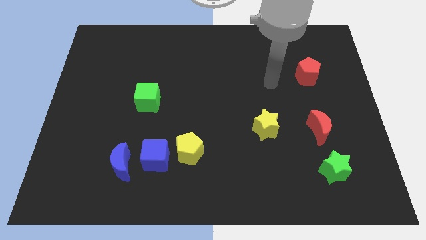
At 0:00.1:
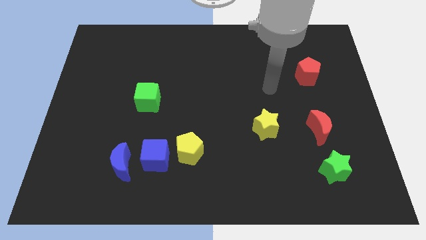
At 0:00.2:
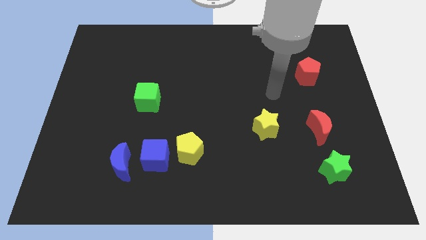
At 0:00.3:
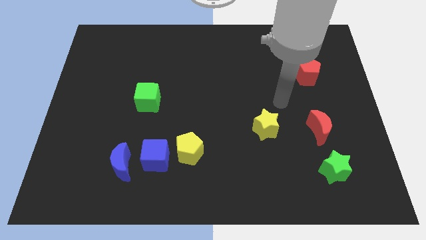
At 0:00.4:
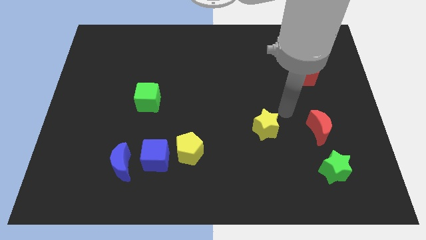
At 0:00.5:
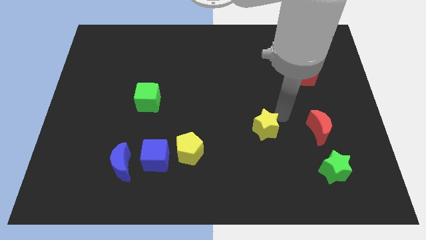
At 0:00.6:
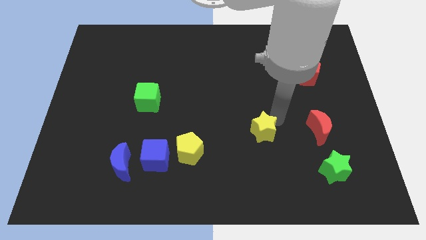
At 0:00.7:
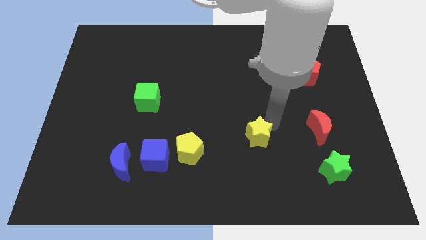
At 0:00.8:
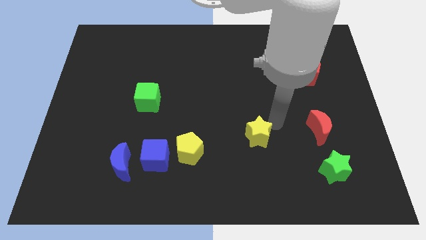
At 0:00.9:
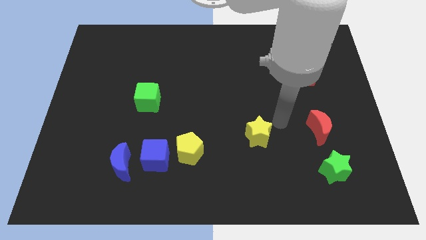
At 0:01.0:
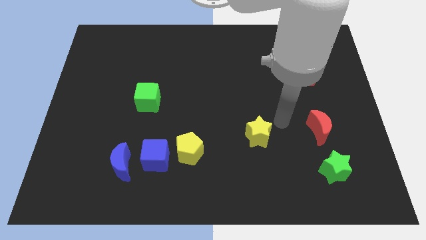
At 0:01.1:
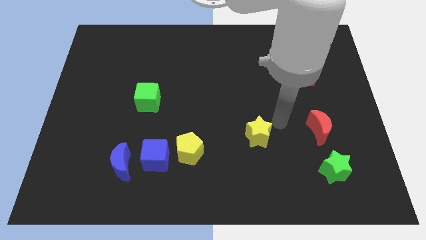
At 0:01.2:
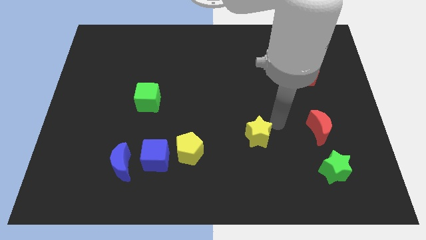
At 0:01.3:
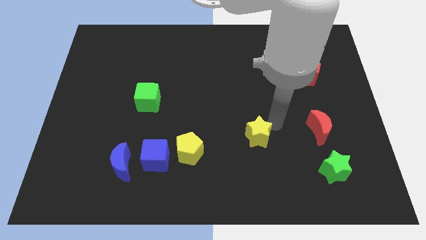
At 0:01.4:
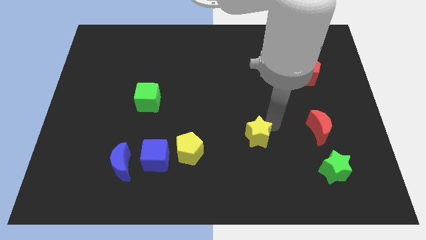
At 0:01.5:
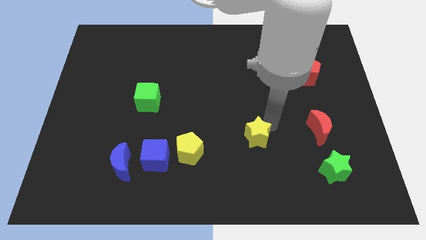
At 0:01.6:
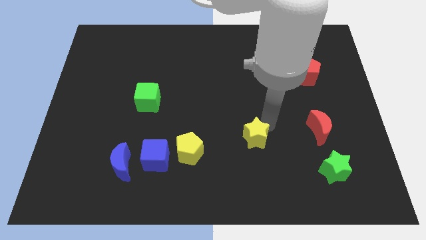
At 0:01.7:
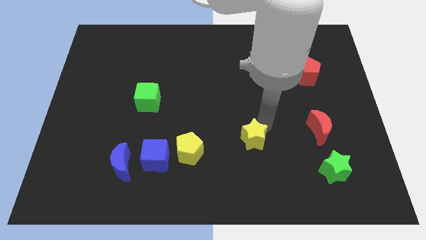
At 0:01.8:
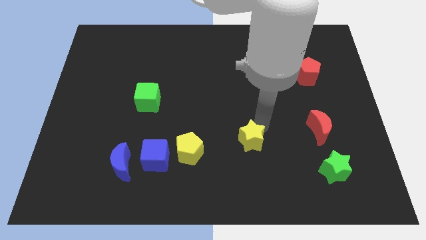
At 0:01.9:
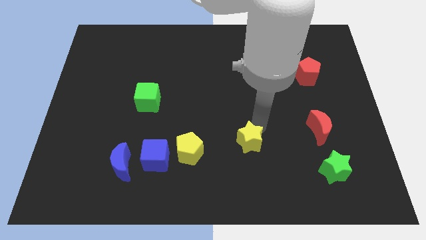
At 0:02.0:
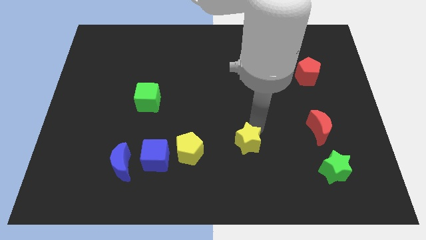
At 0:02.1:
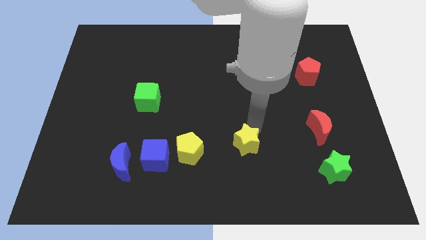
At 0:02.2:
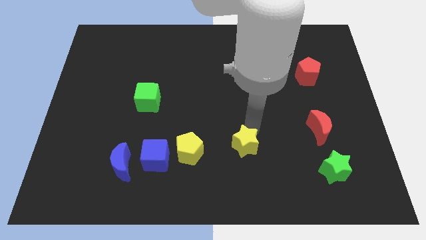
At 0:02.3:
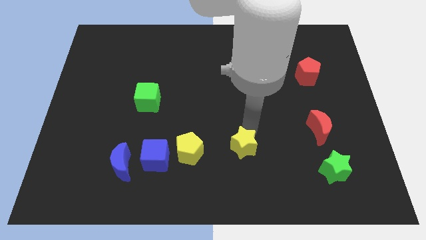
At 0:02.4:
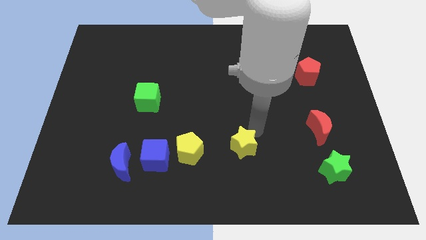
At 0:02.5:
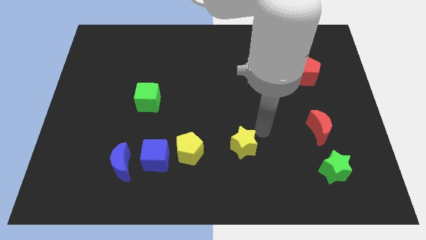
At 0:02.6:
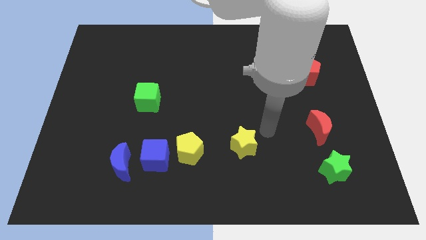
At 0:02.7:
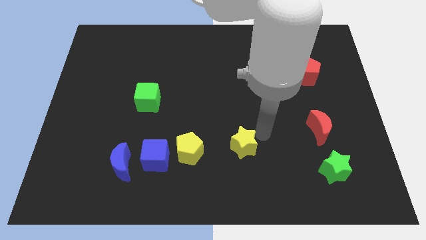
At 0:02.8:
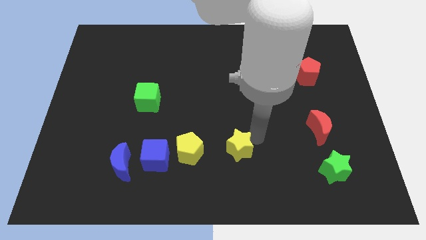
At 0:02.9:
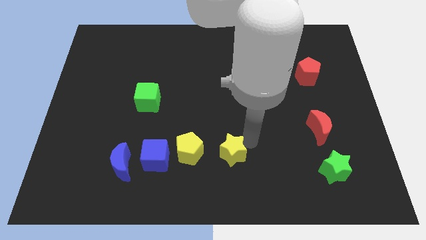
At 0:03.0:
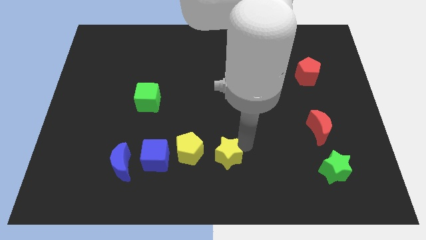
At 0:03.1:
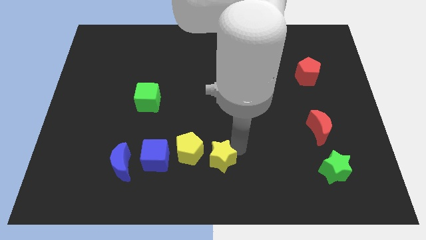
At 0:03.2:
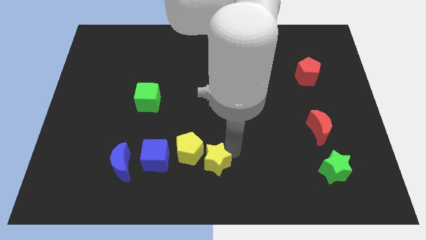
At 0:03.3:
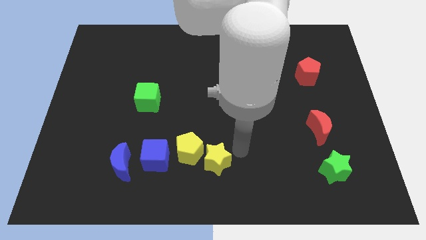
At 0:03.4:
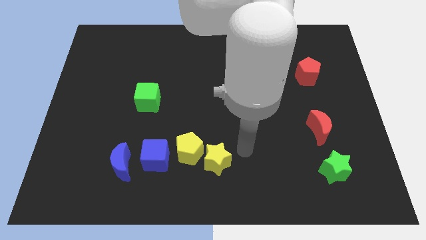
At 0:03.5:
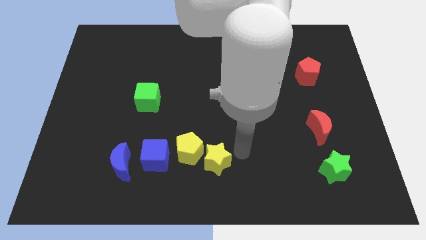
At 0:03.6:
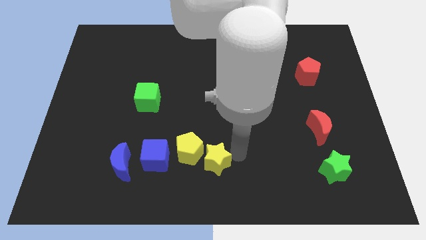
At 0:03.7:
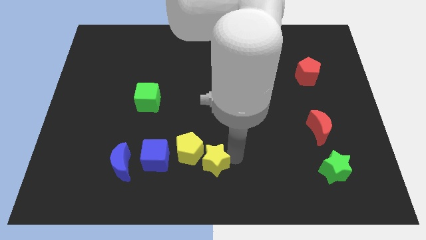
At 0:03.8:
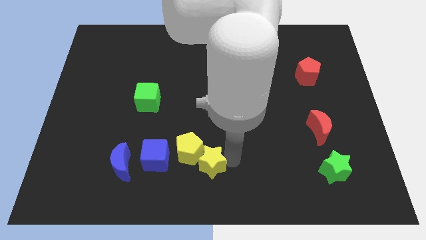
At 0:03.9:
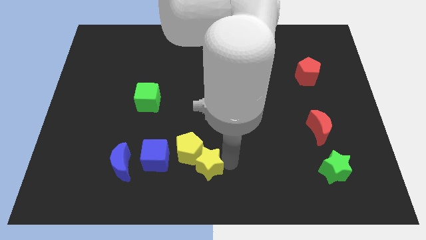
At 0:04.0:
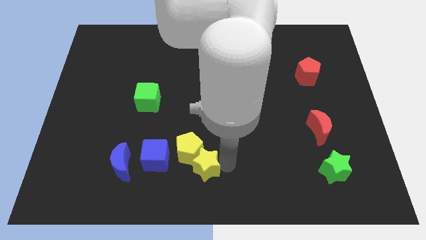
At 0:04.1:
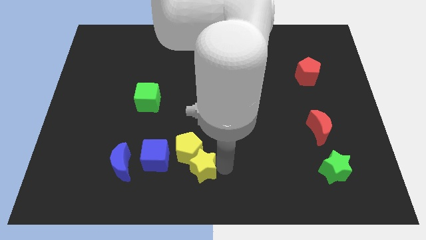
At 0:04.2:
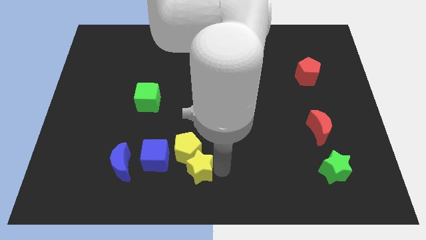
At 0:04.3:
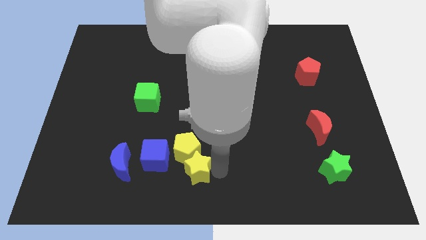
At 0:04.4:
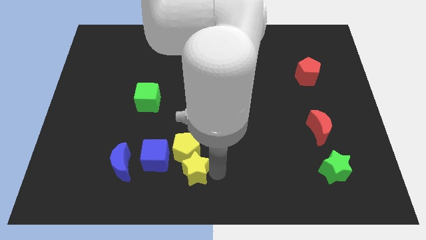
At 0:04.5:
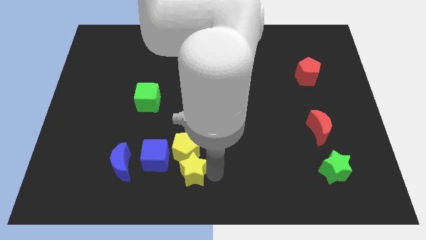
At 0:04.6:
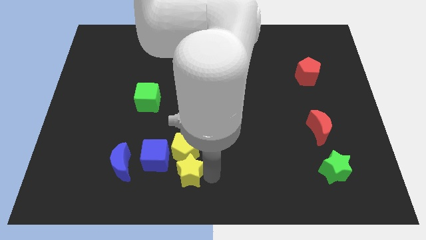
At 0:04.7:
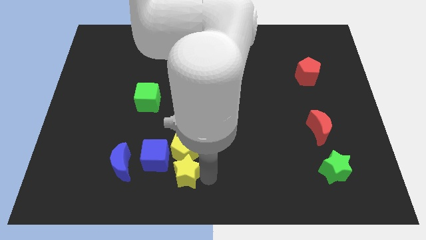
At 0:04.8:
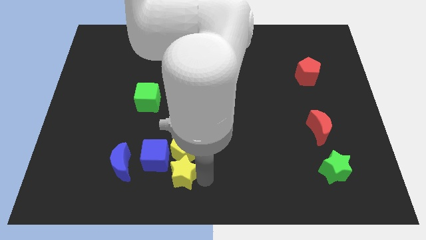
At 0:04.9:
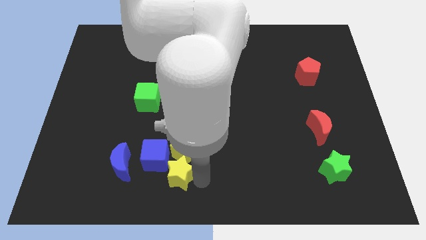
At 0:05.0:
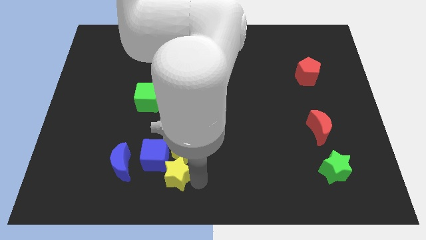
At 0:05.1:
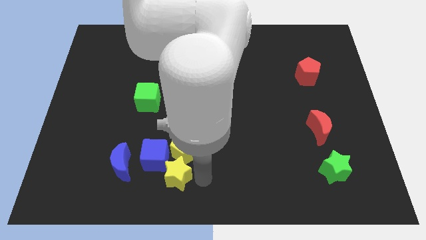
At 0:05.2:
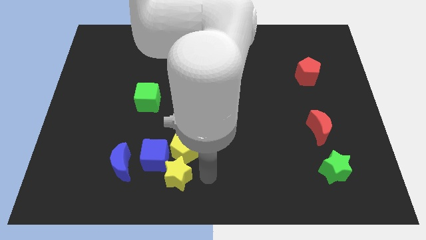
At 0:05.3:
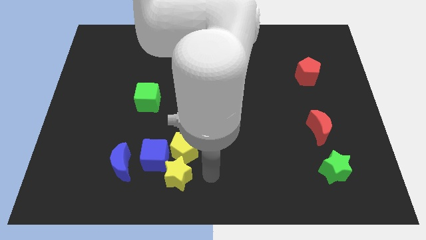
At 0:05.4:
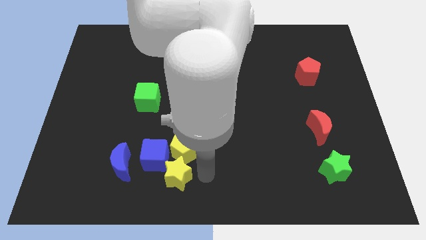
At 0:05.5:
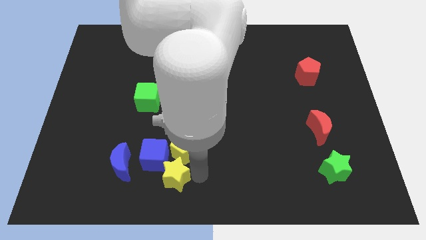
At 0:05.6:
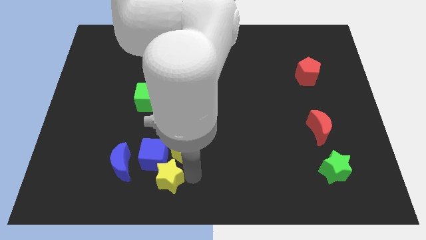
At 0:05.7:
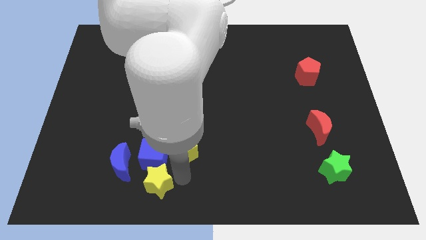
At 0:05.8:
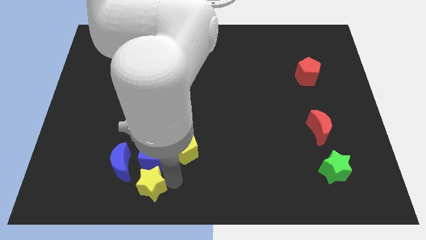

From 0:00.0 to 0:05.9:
put the yellow star to the bottom left side of the blue cube

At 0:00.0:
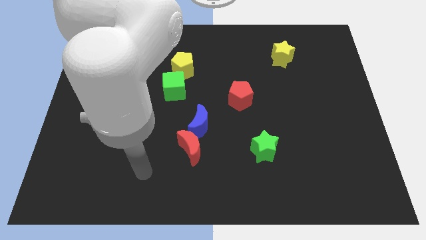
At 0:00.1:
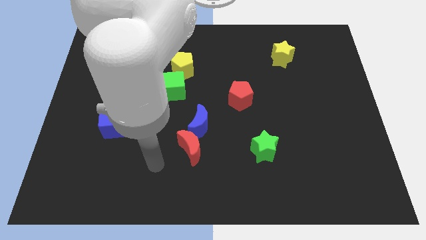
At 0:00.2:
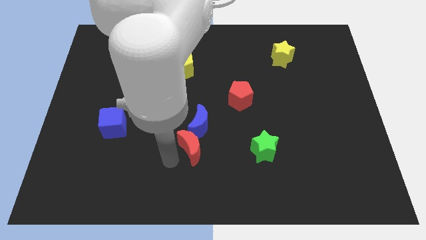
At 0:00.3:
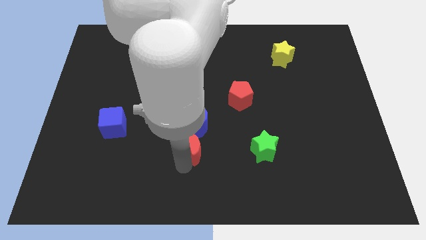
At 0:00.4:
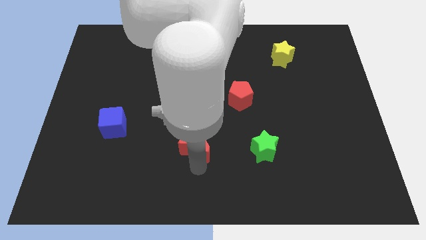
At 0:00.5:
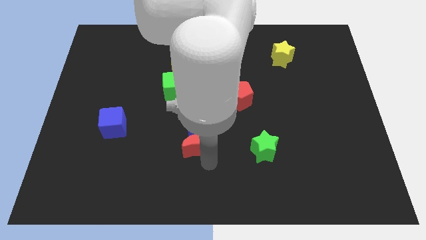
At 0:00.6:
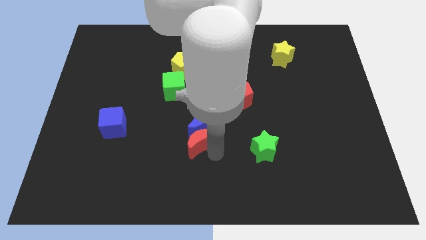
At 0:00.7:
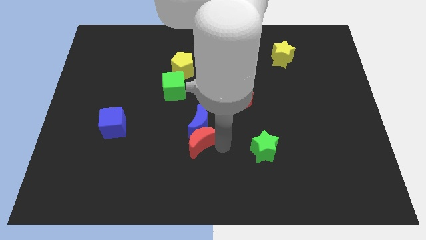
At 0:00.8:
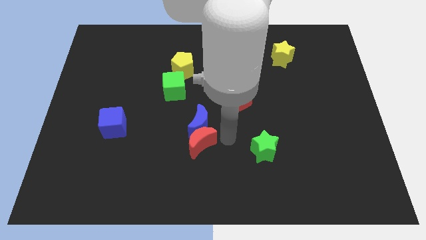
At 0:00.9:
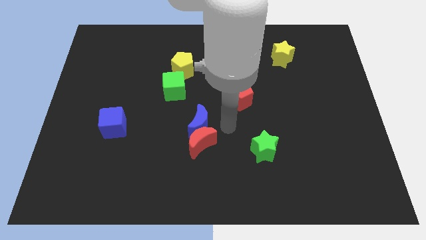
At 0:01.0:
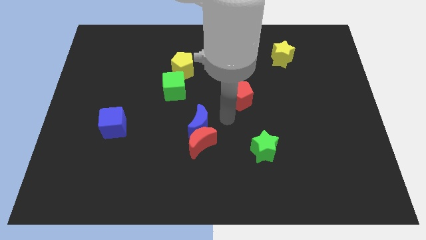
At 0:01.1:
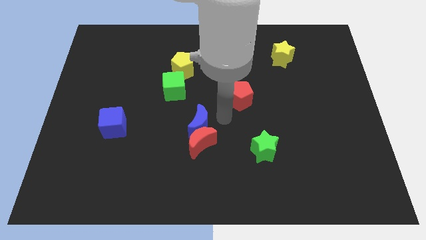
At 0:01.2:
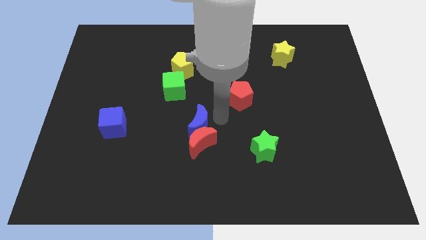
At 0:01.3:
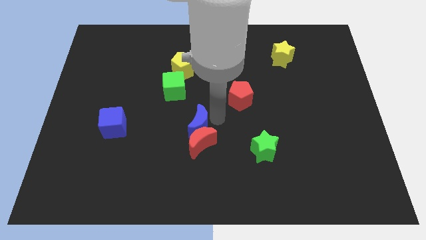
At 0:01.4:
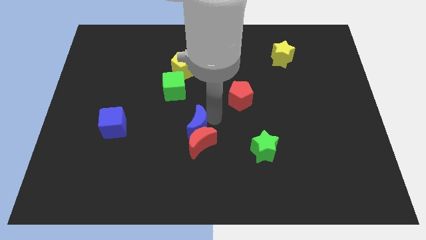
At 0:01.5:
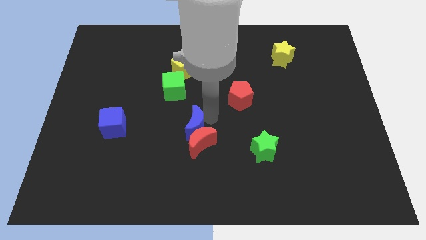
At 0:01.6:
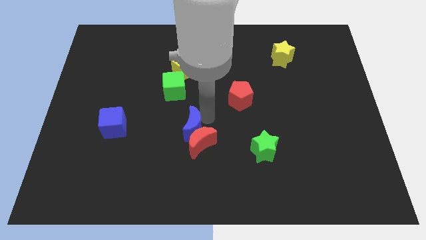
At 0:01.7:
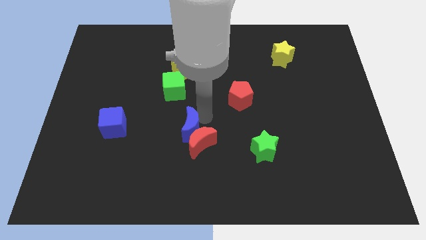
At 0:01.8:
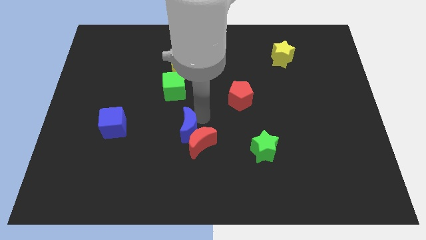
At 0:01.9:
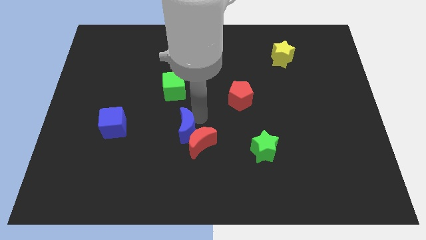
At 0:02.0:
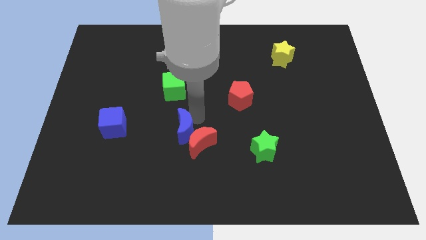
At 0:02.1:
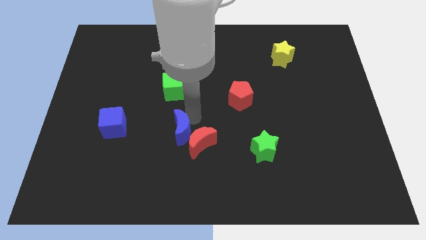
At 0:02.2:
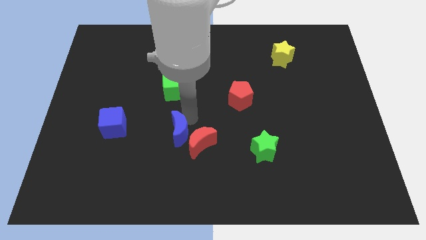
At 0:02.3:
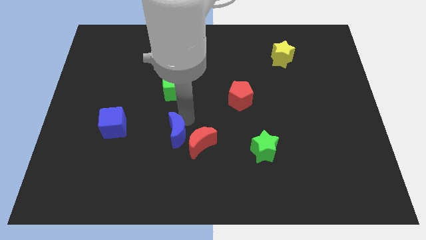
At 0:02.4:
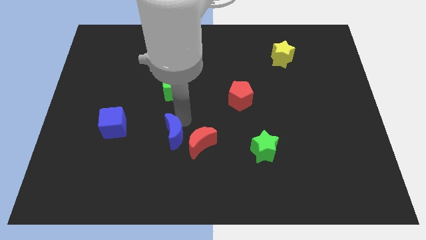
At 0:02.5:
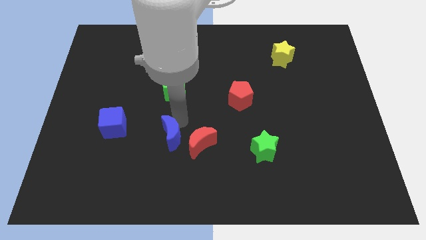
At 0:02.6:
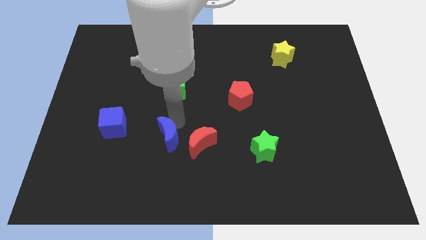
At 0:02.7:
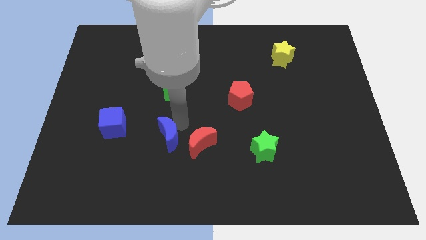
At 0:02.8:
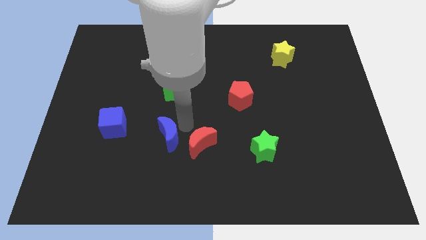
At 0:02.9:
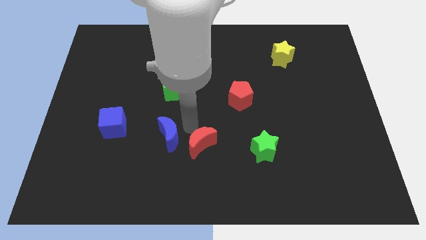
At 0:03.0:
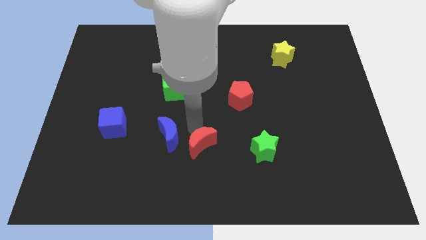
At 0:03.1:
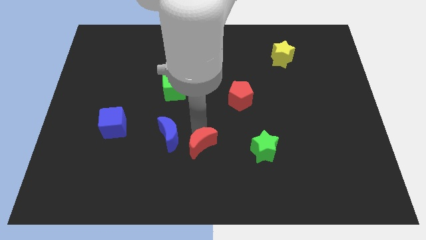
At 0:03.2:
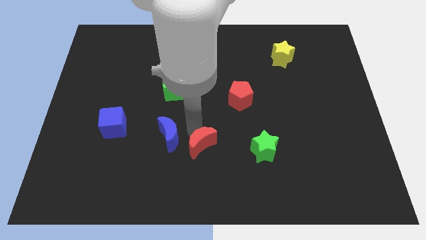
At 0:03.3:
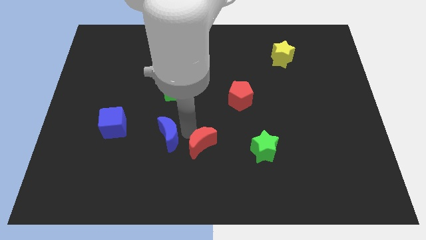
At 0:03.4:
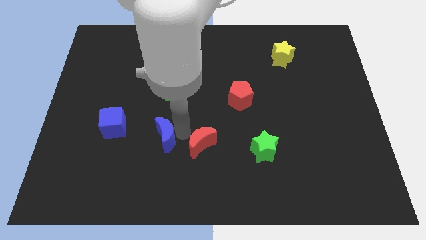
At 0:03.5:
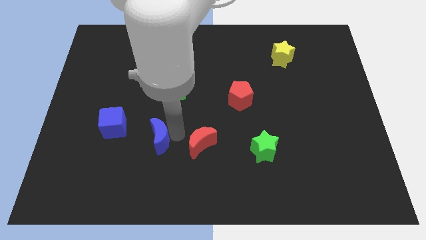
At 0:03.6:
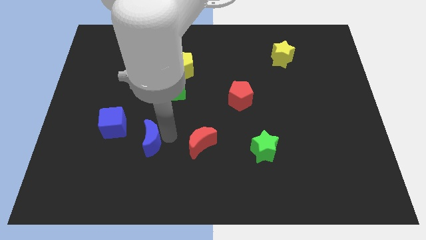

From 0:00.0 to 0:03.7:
push the blue moon diagonally down and to the right of the blue cube
